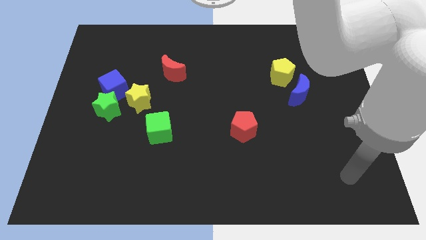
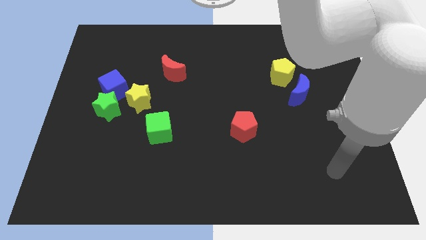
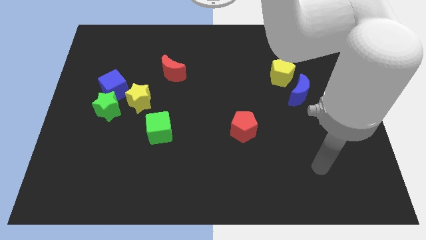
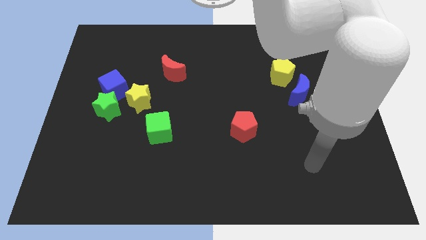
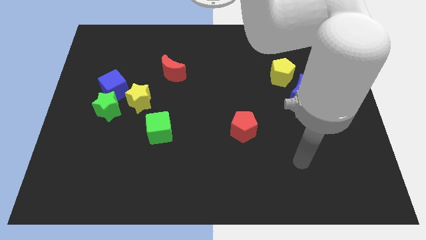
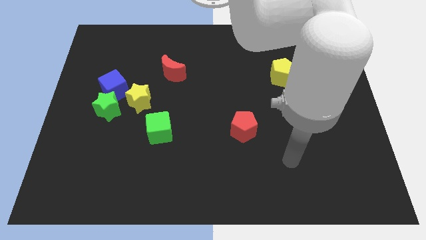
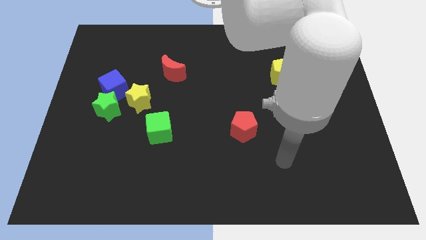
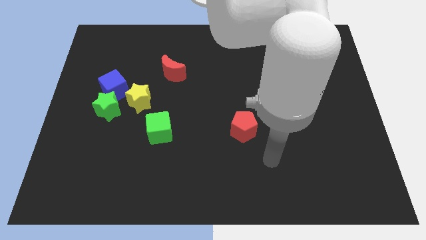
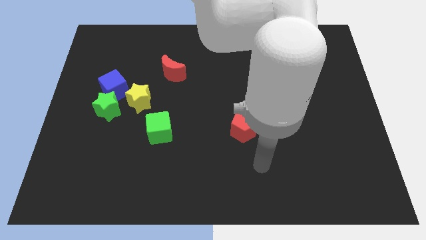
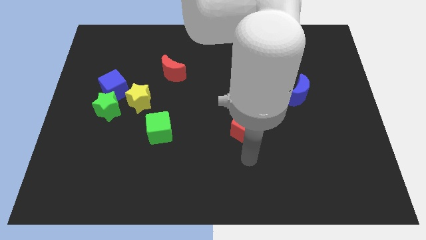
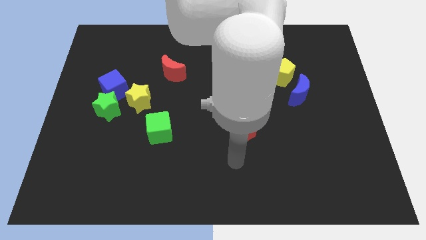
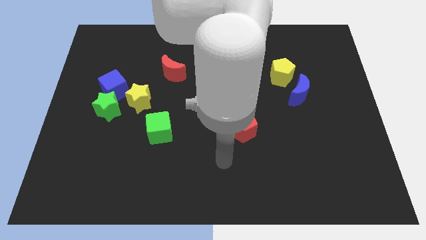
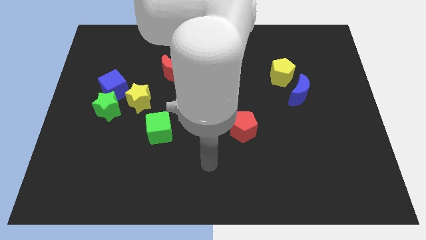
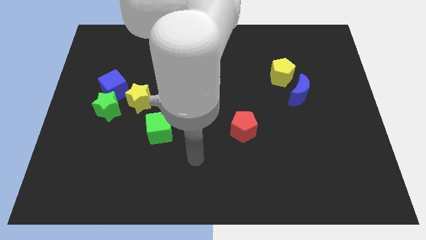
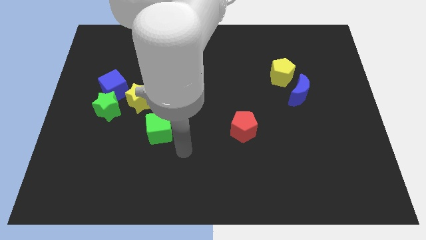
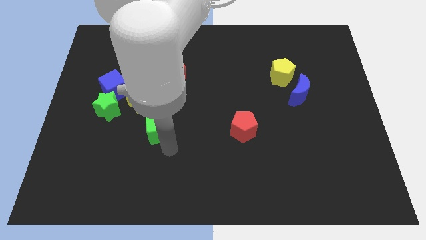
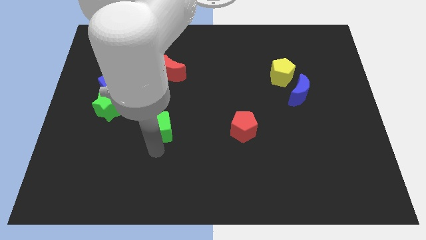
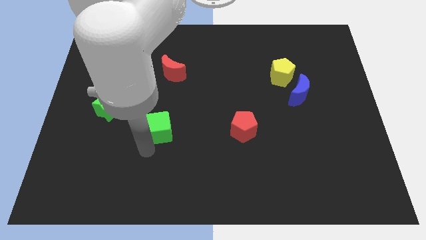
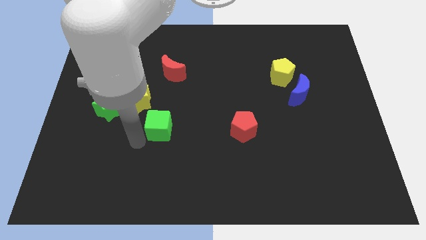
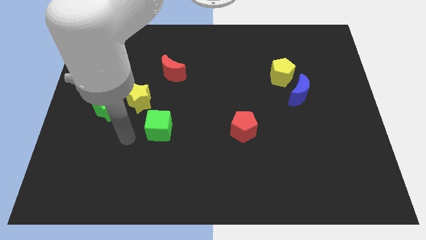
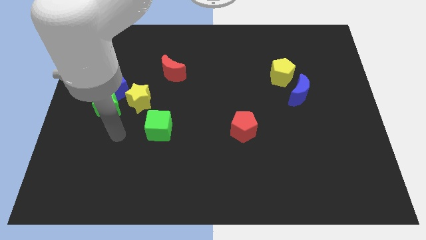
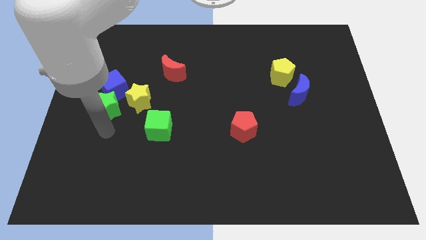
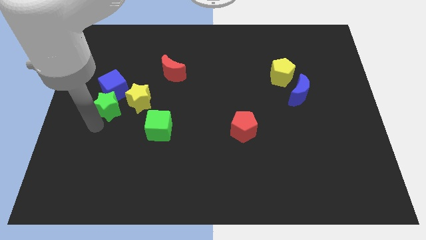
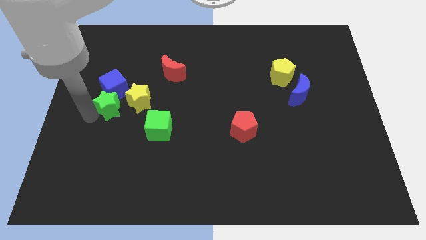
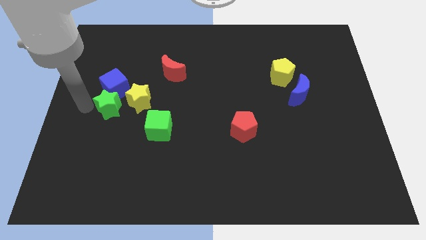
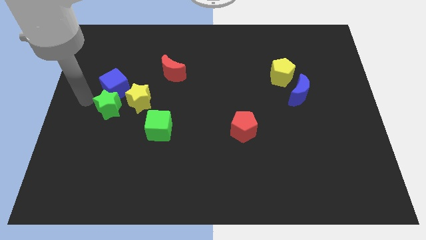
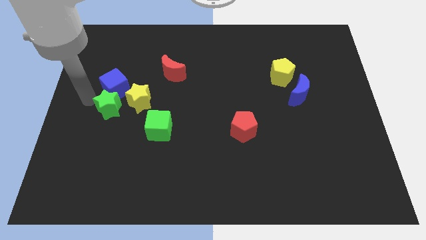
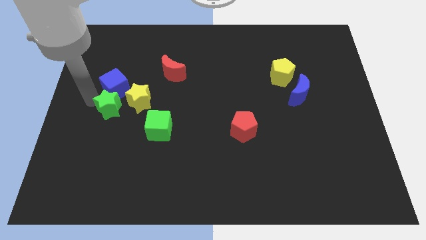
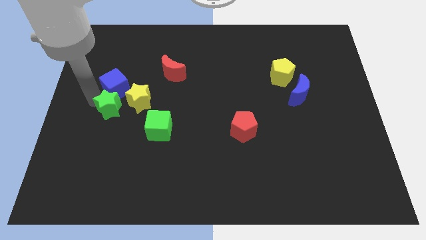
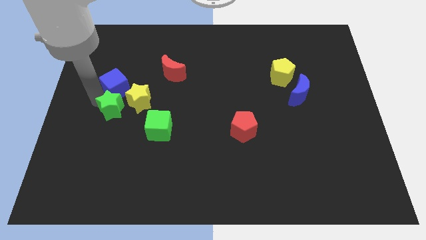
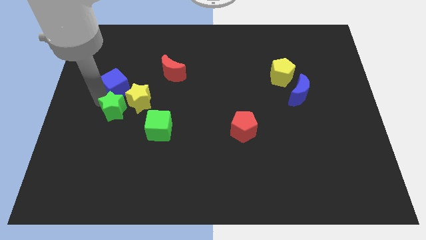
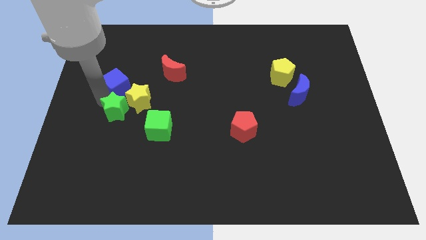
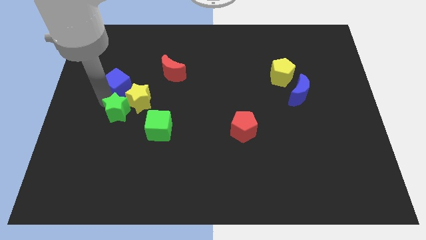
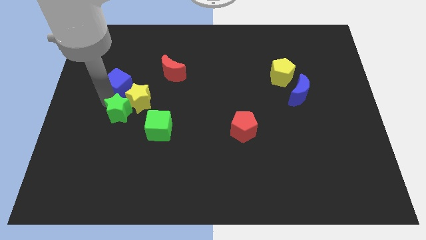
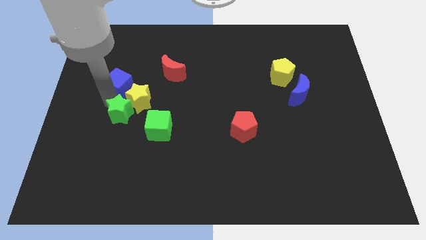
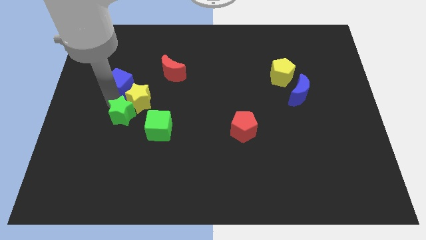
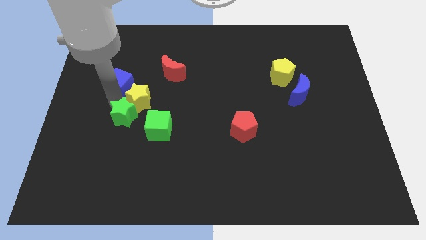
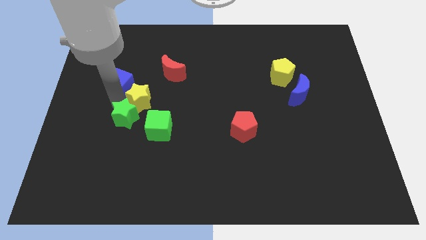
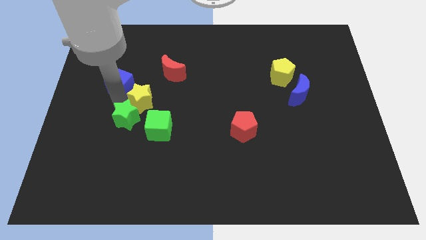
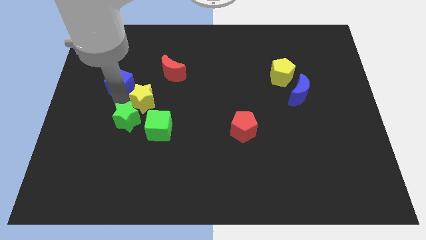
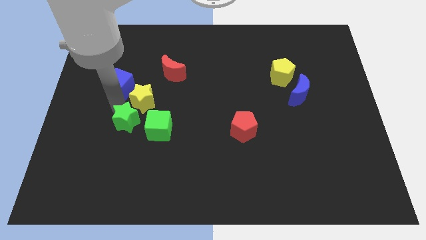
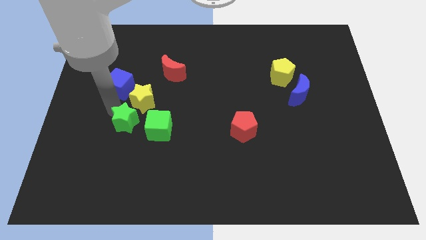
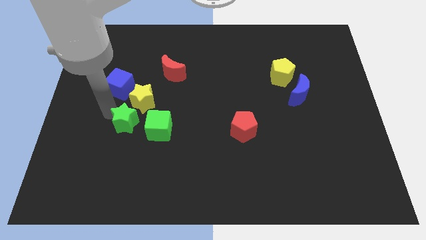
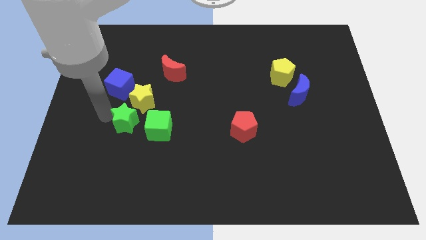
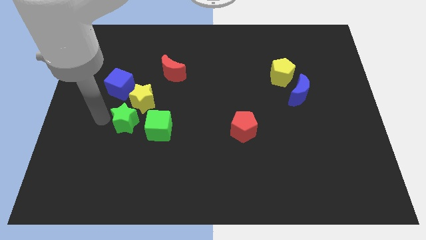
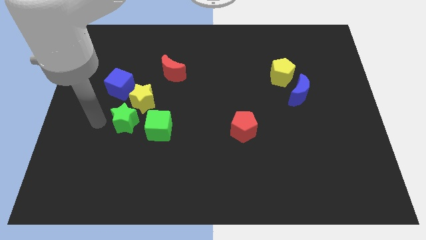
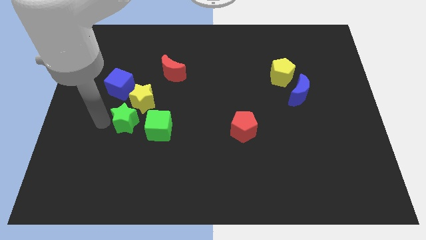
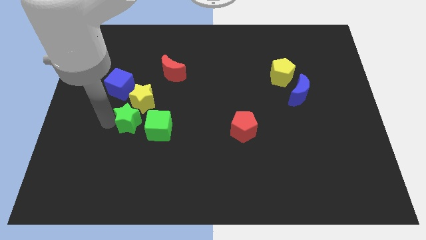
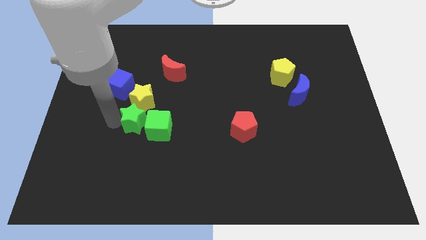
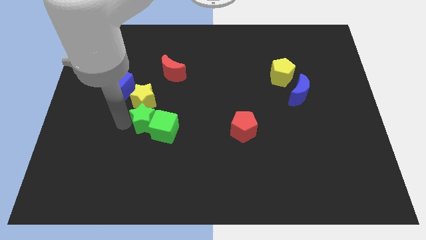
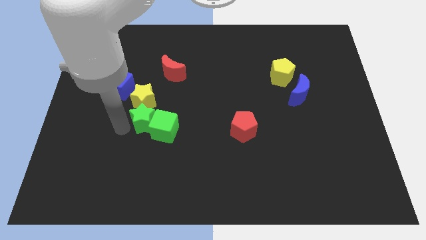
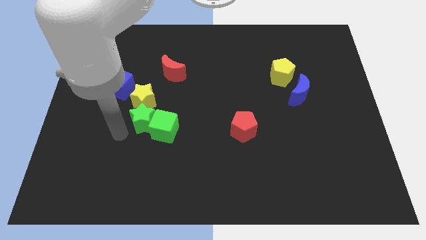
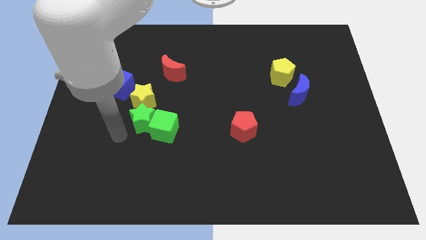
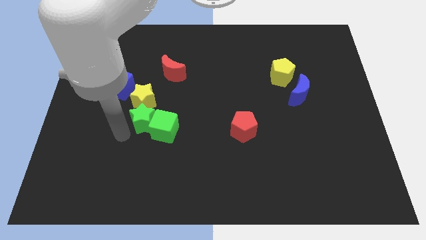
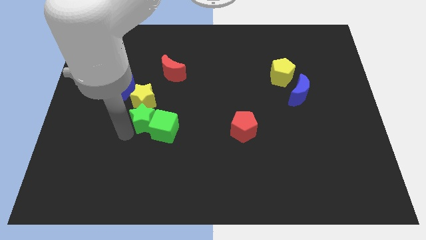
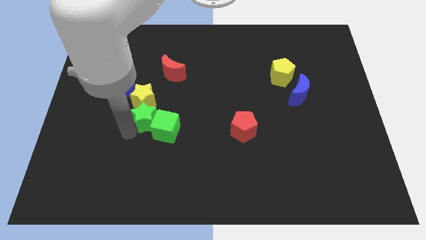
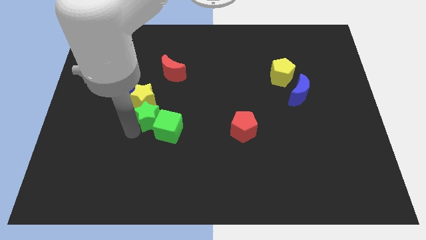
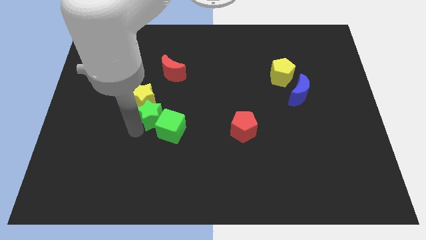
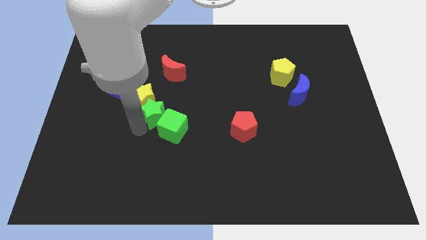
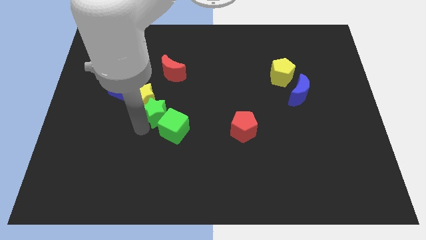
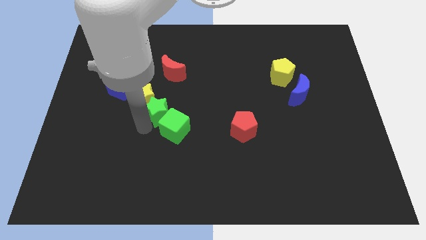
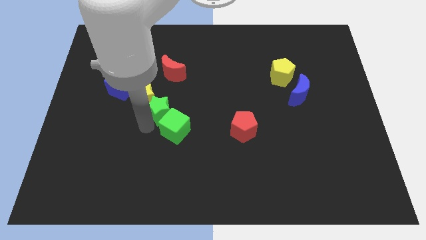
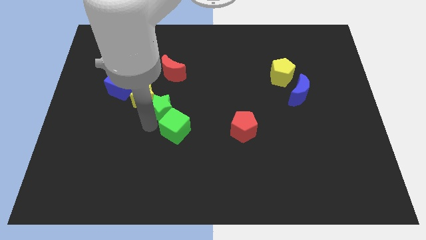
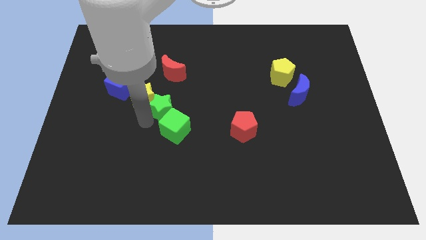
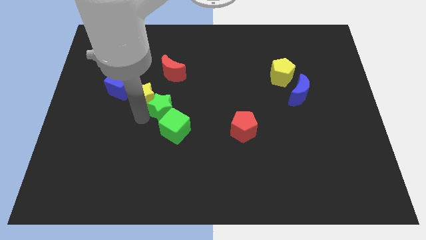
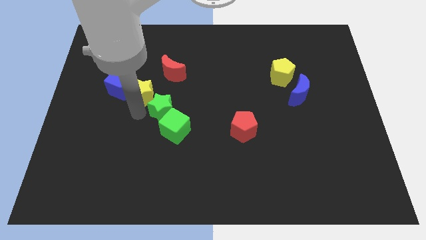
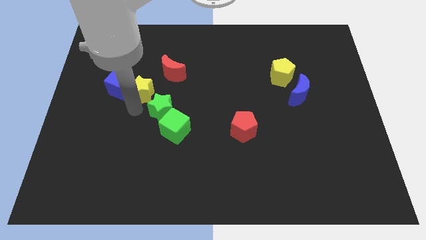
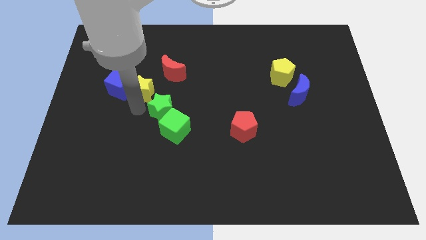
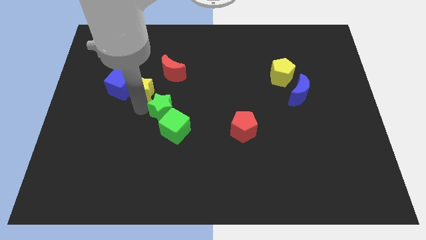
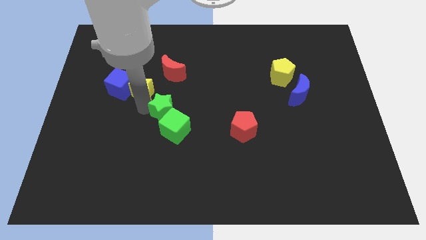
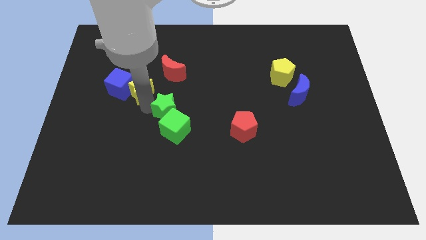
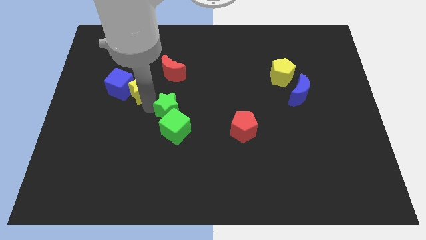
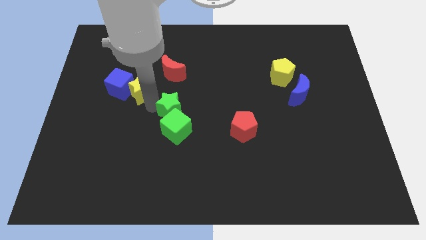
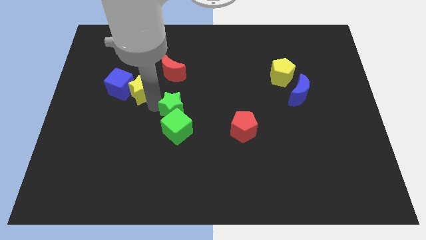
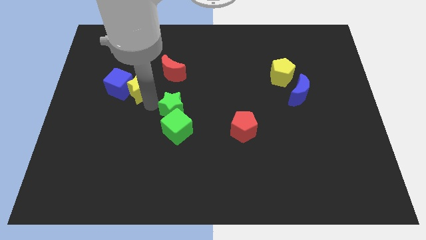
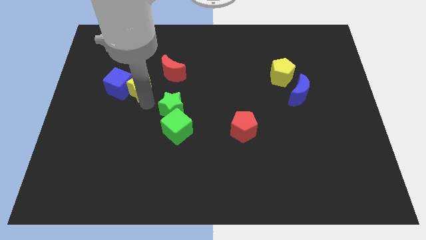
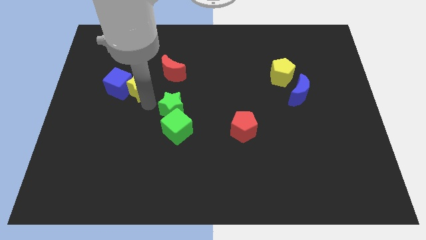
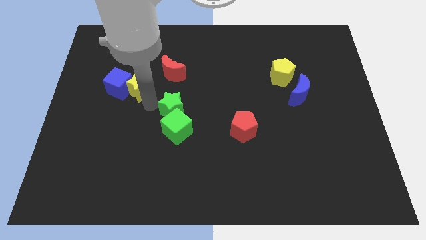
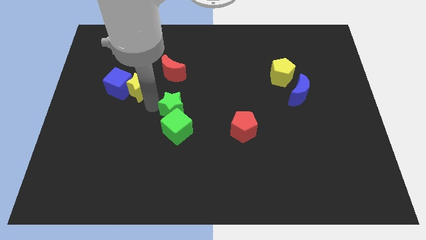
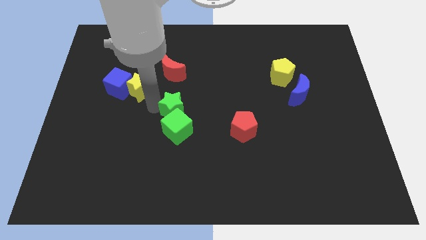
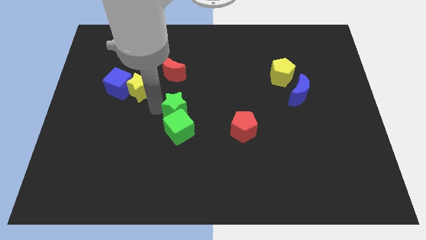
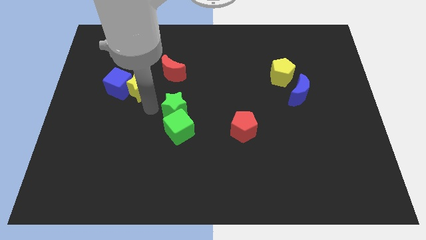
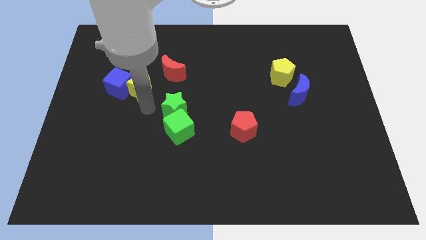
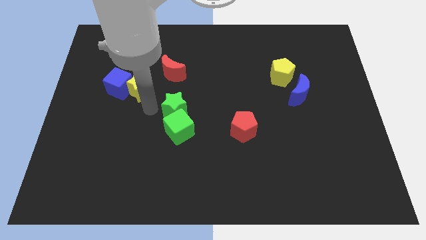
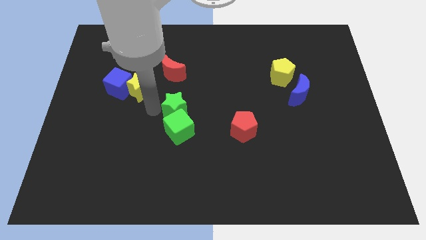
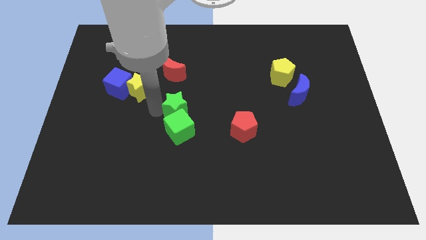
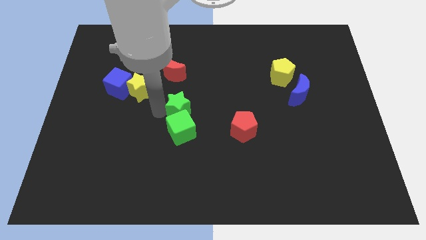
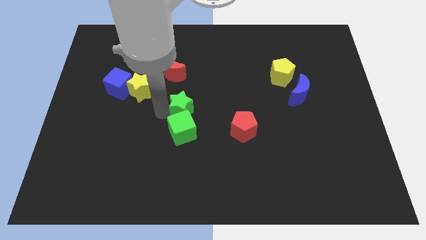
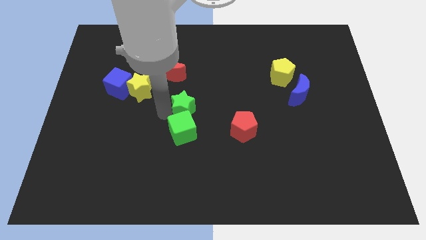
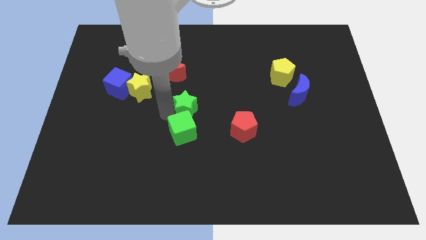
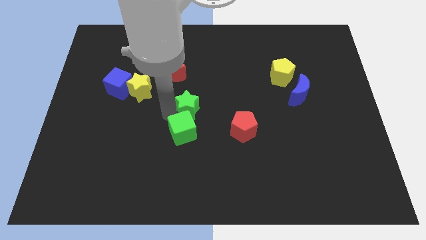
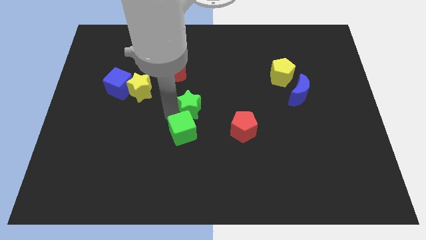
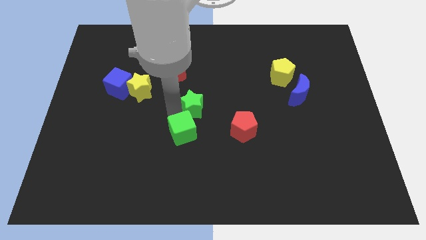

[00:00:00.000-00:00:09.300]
slide the green star to the right
